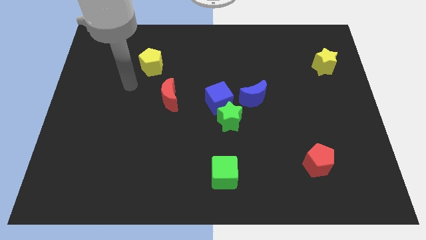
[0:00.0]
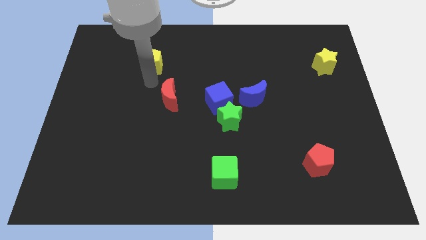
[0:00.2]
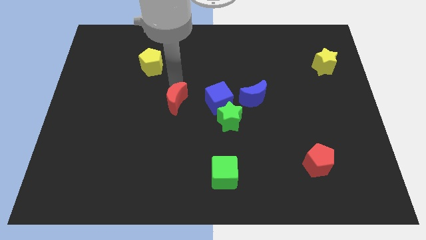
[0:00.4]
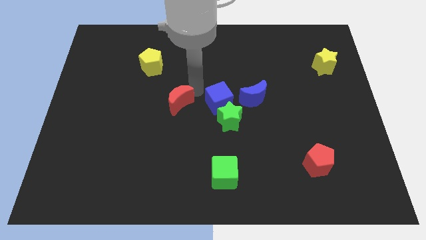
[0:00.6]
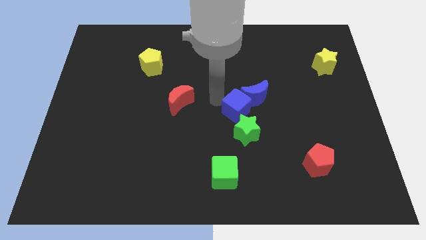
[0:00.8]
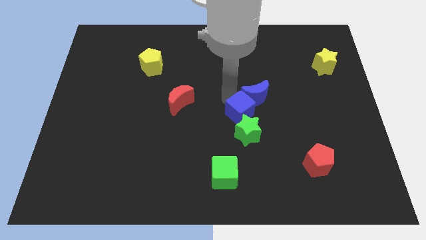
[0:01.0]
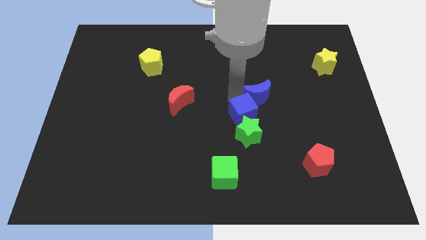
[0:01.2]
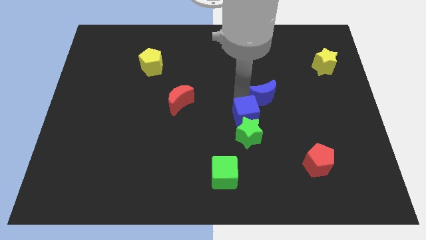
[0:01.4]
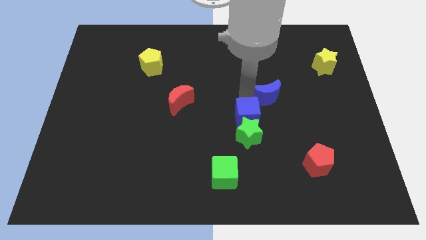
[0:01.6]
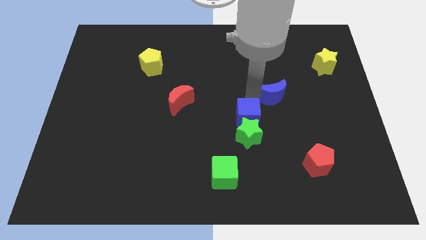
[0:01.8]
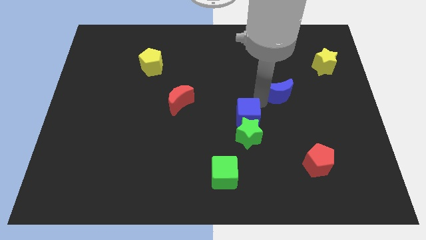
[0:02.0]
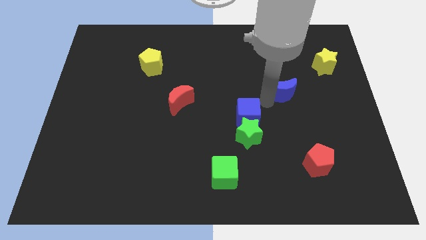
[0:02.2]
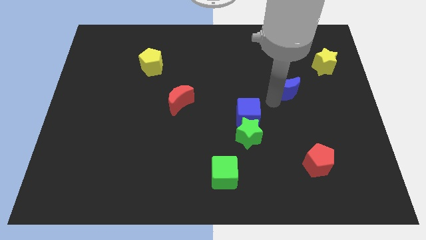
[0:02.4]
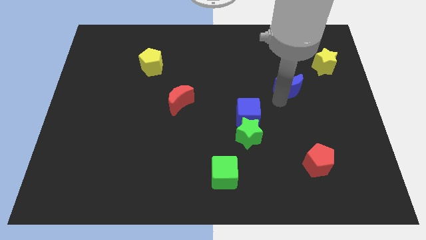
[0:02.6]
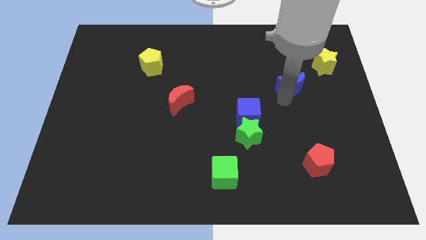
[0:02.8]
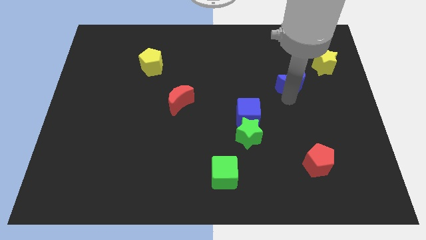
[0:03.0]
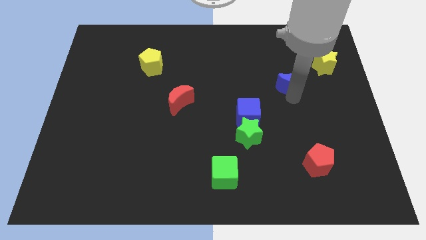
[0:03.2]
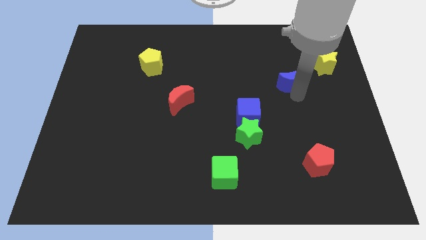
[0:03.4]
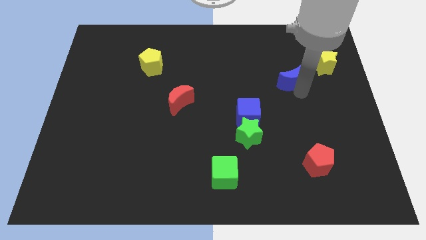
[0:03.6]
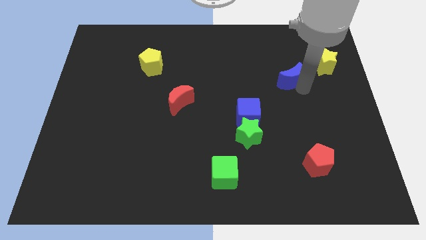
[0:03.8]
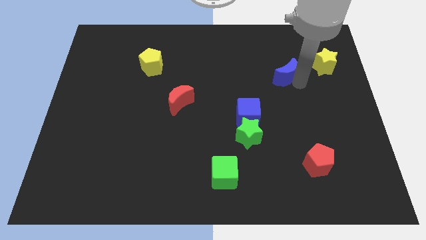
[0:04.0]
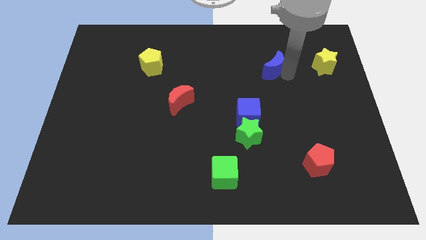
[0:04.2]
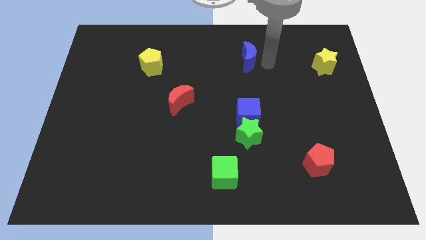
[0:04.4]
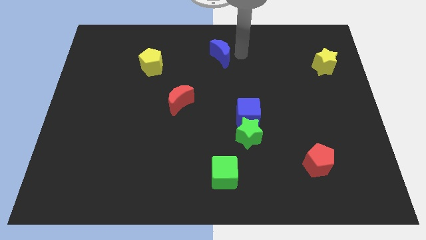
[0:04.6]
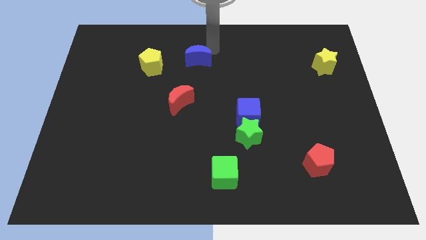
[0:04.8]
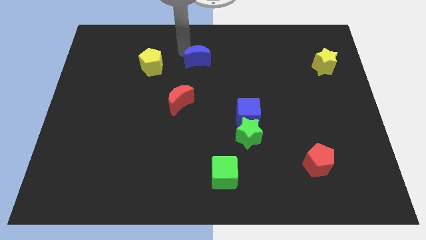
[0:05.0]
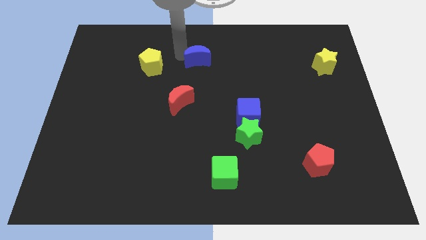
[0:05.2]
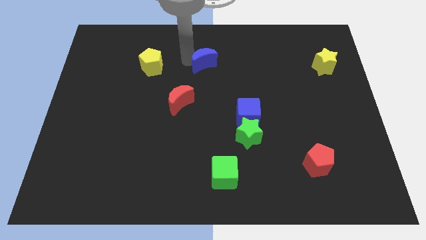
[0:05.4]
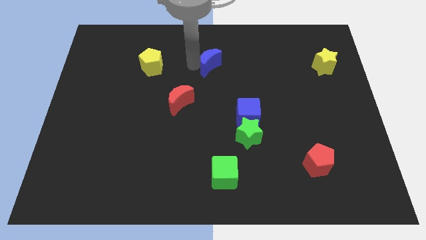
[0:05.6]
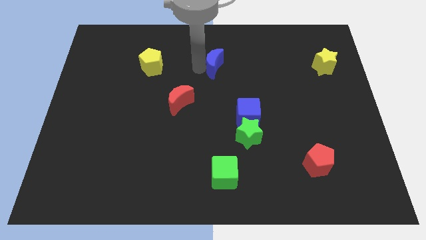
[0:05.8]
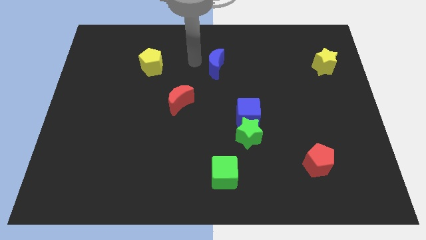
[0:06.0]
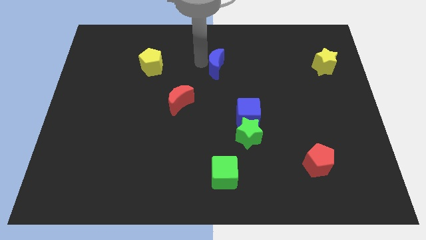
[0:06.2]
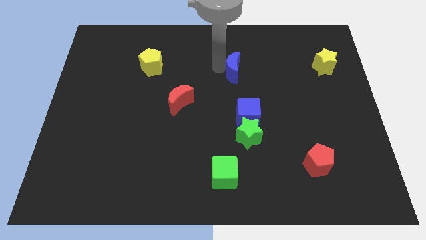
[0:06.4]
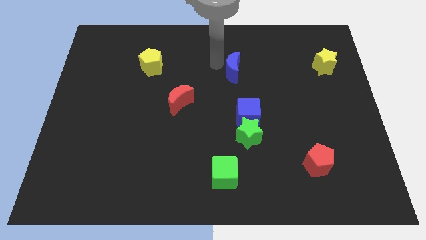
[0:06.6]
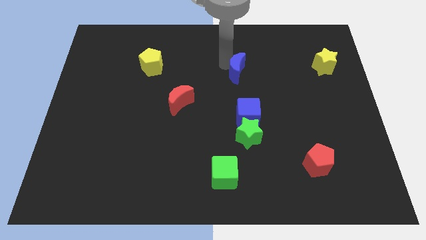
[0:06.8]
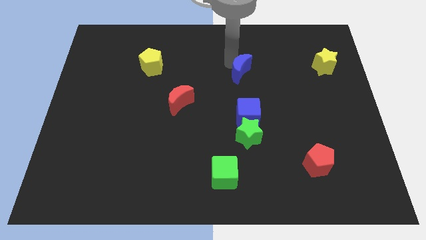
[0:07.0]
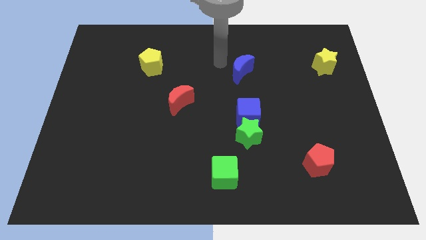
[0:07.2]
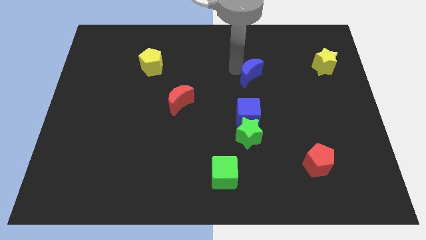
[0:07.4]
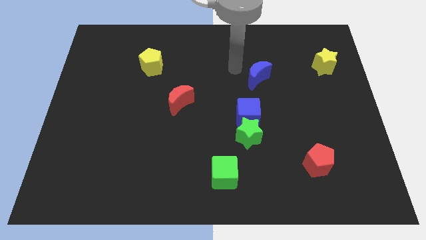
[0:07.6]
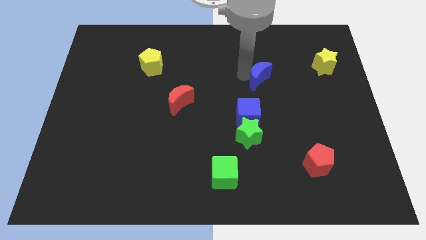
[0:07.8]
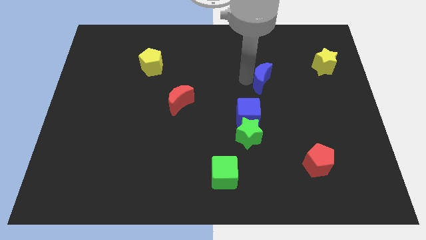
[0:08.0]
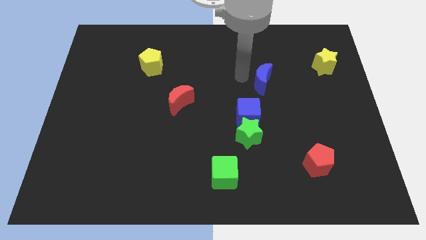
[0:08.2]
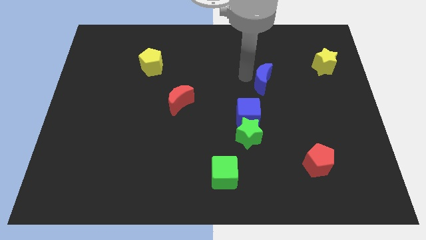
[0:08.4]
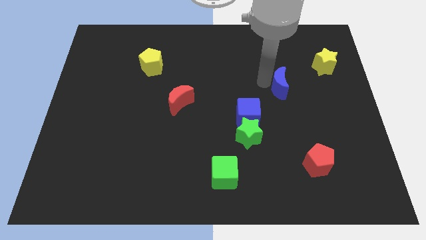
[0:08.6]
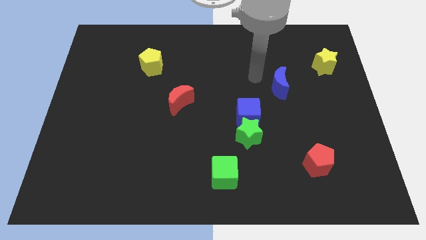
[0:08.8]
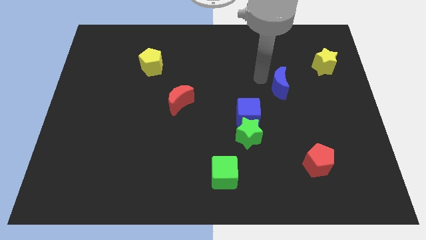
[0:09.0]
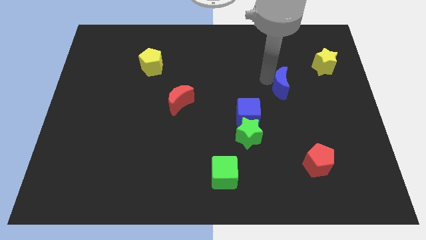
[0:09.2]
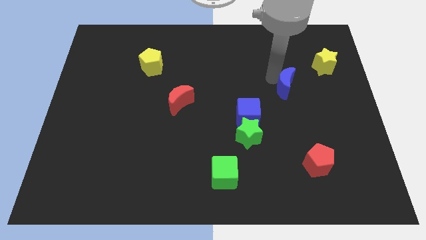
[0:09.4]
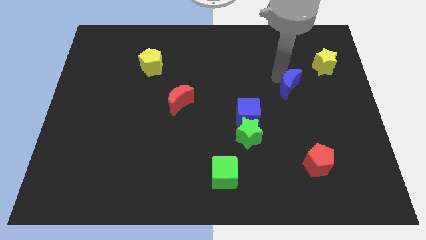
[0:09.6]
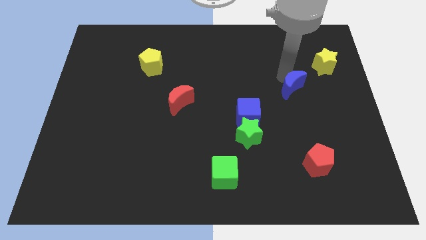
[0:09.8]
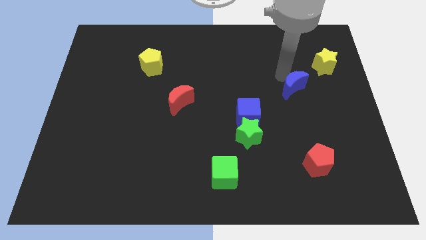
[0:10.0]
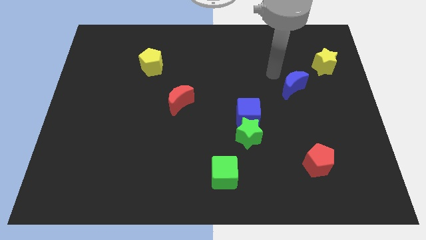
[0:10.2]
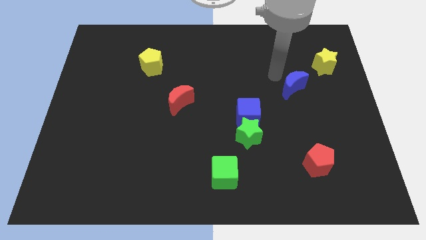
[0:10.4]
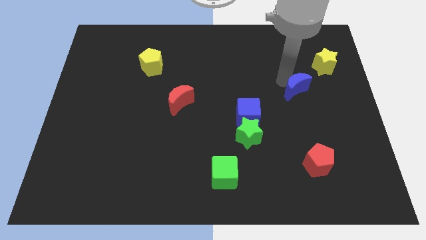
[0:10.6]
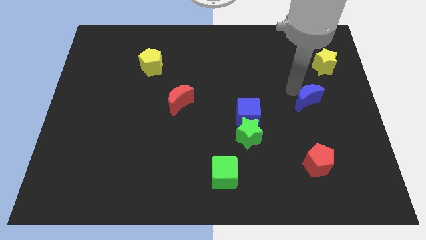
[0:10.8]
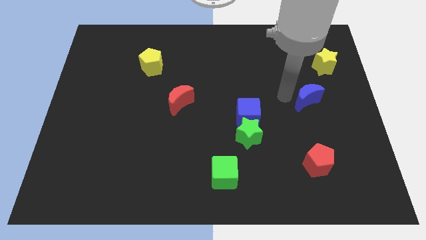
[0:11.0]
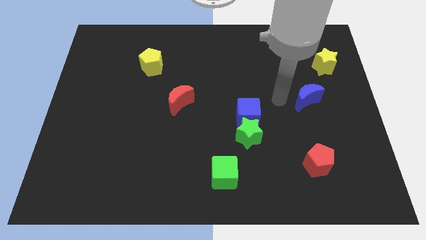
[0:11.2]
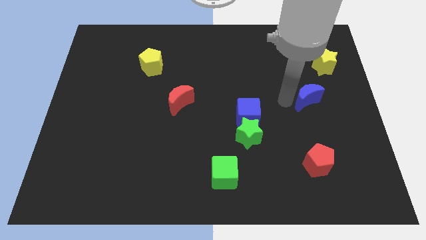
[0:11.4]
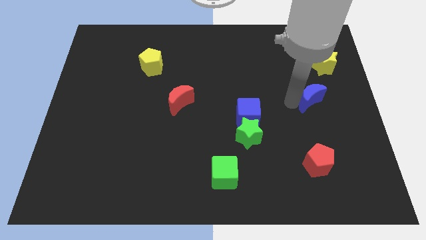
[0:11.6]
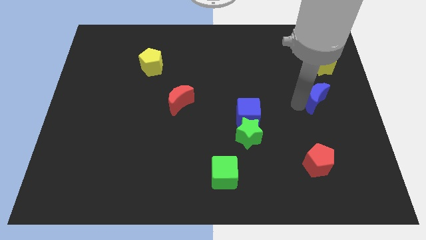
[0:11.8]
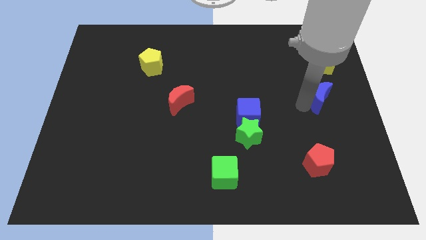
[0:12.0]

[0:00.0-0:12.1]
push the blue moon to the right side of the board
